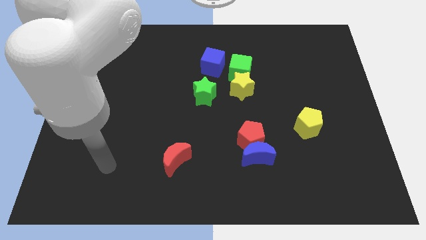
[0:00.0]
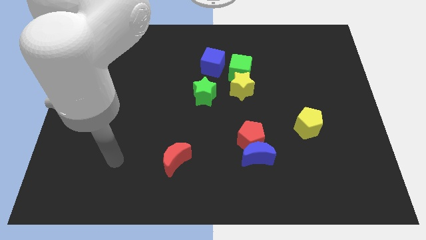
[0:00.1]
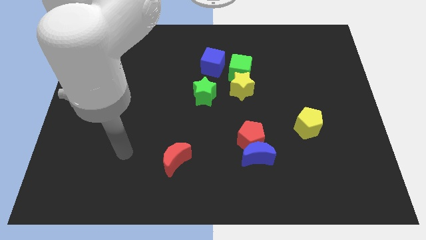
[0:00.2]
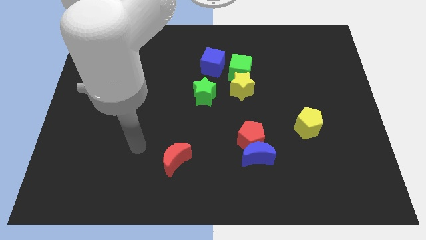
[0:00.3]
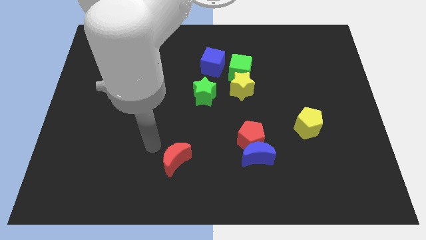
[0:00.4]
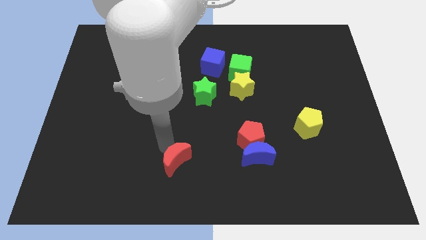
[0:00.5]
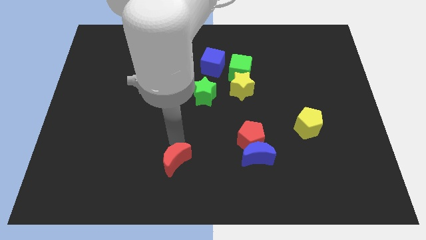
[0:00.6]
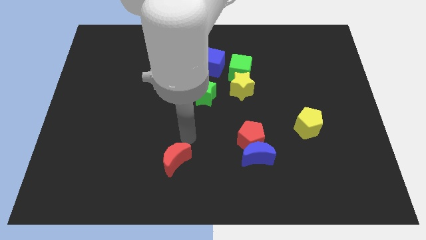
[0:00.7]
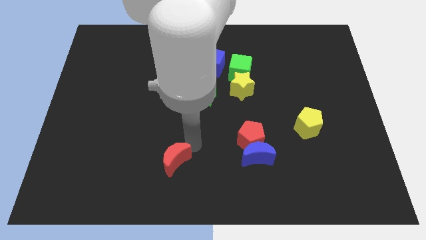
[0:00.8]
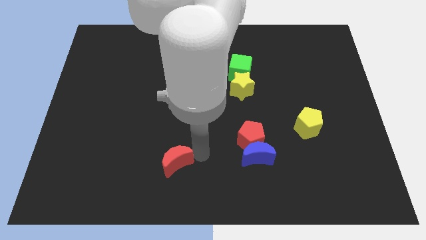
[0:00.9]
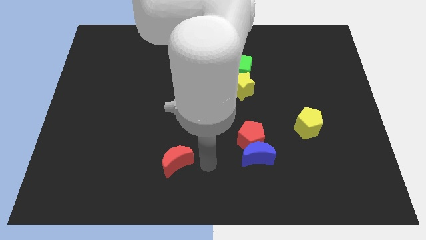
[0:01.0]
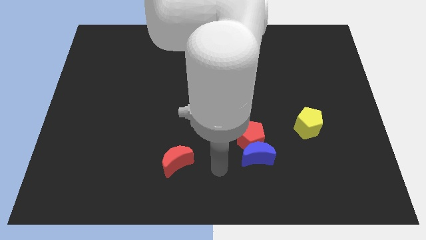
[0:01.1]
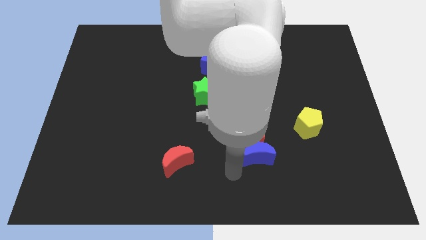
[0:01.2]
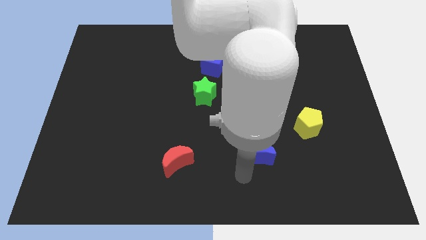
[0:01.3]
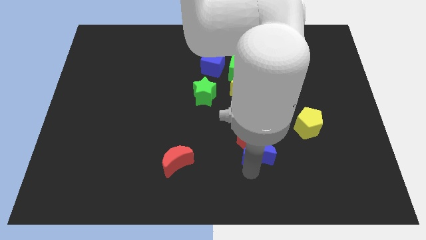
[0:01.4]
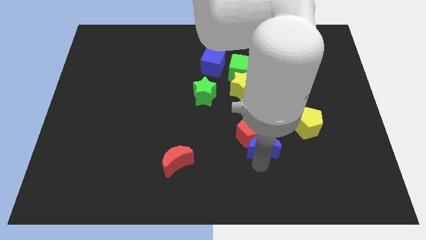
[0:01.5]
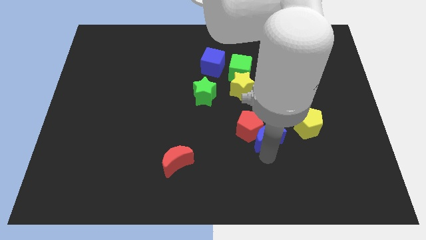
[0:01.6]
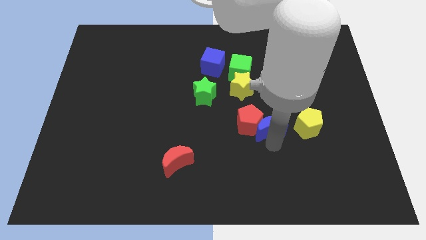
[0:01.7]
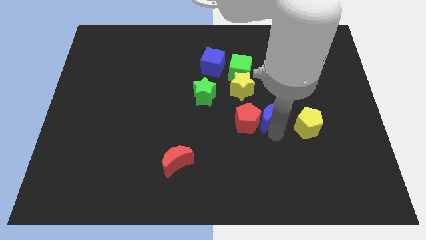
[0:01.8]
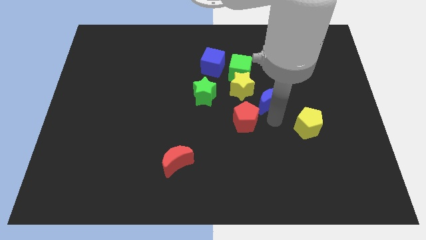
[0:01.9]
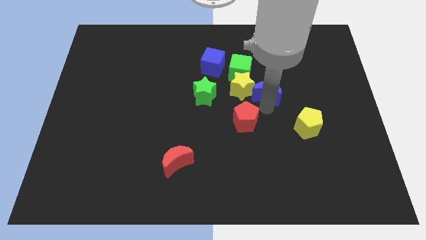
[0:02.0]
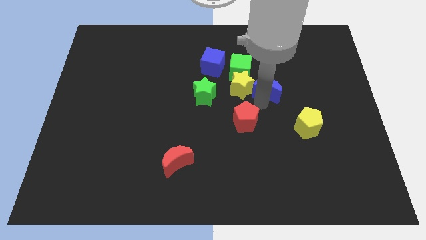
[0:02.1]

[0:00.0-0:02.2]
separate the red pentagon from the blue moon

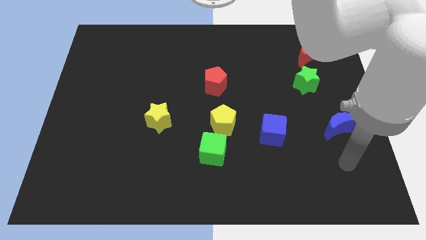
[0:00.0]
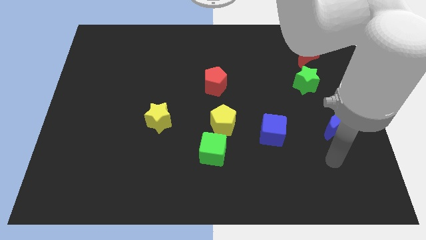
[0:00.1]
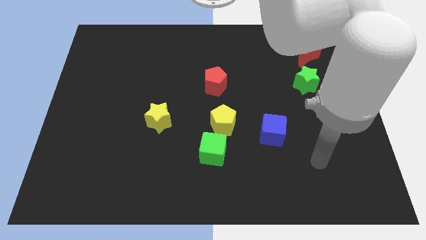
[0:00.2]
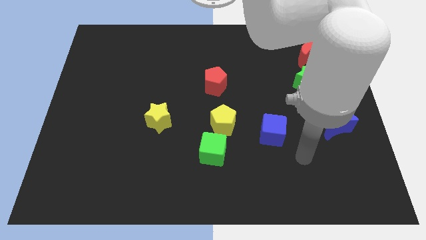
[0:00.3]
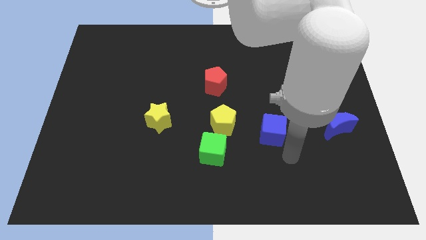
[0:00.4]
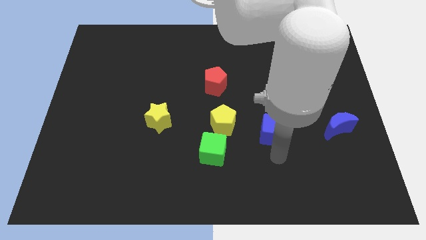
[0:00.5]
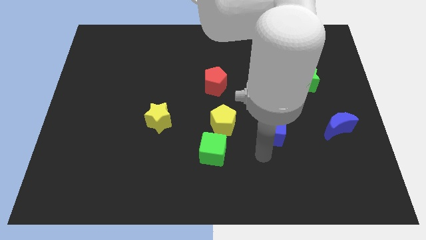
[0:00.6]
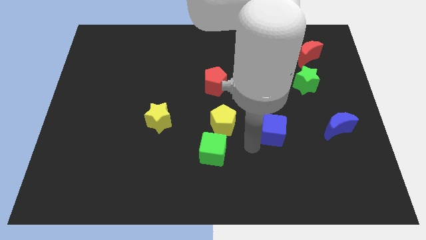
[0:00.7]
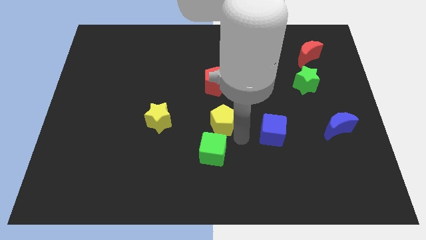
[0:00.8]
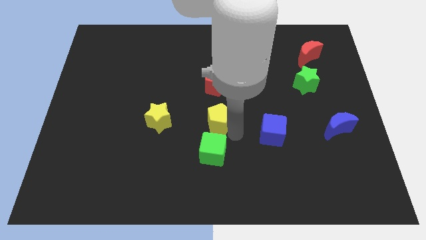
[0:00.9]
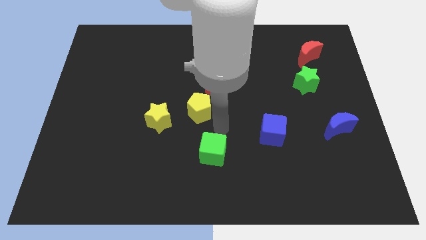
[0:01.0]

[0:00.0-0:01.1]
move the green cube away from the yellow pentagon

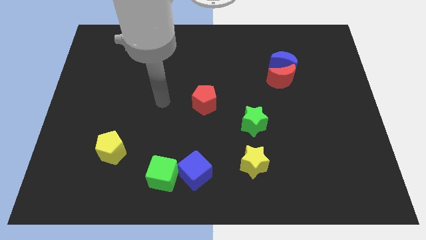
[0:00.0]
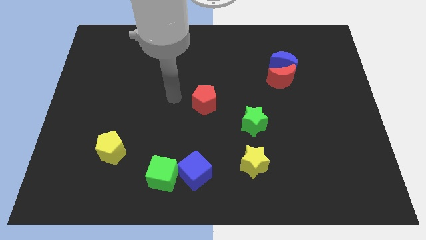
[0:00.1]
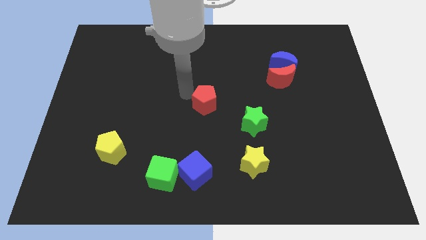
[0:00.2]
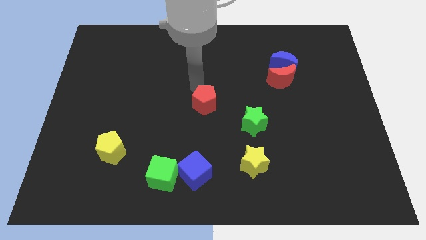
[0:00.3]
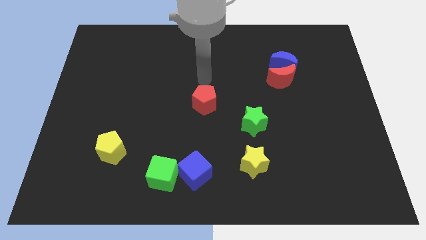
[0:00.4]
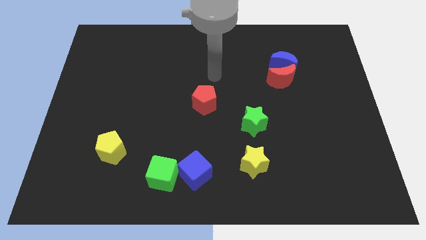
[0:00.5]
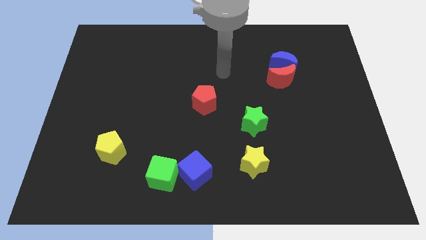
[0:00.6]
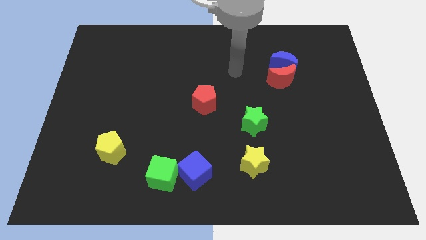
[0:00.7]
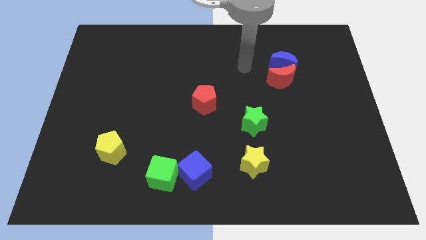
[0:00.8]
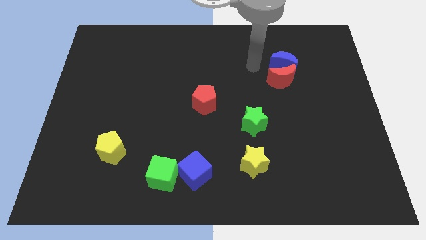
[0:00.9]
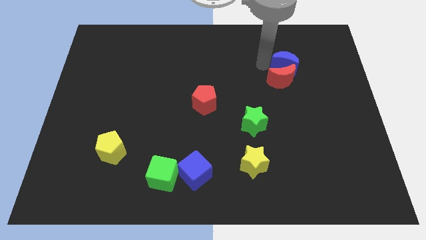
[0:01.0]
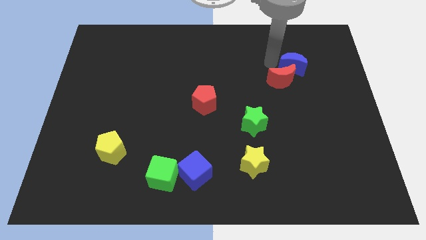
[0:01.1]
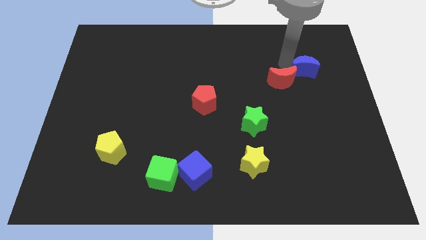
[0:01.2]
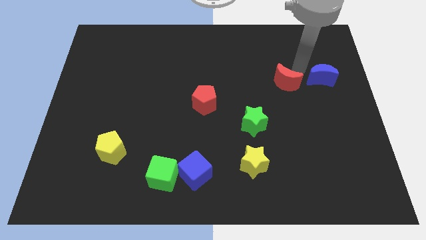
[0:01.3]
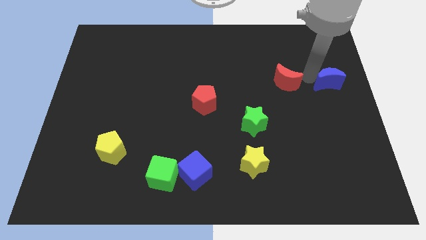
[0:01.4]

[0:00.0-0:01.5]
move the red moon away from the blue moon

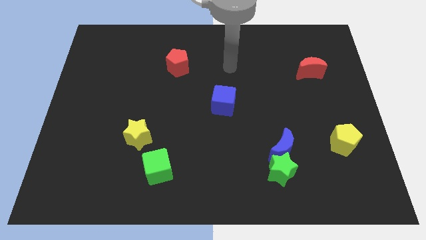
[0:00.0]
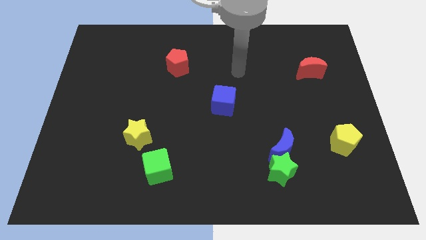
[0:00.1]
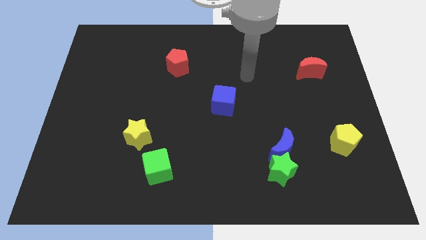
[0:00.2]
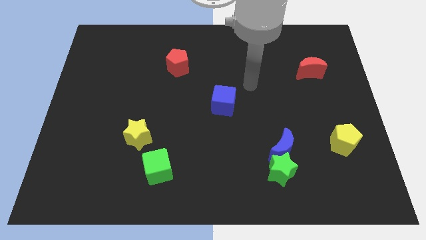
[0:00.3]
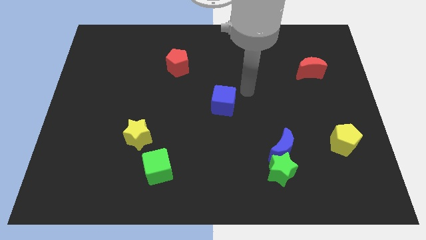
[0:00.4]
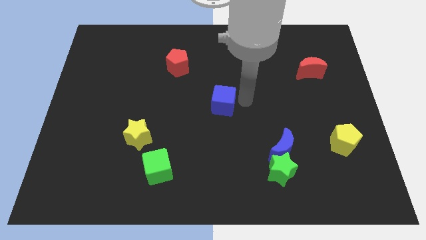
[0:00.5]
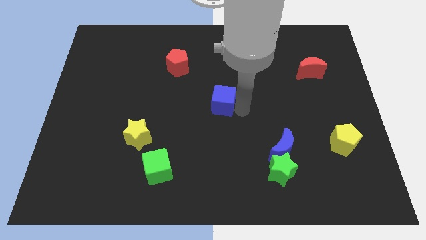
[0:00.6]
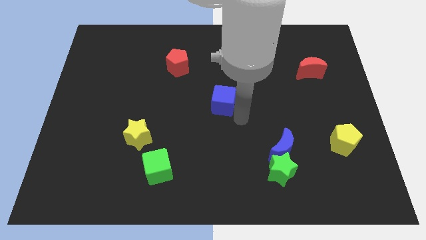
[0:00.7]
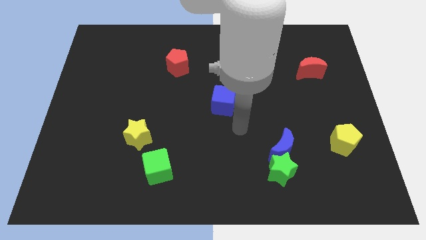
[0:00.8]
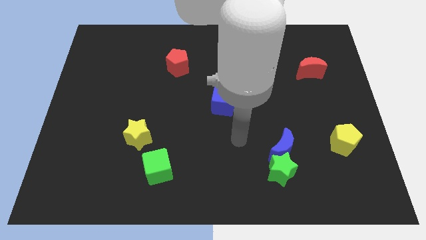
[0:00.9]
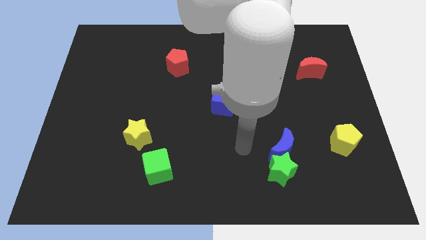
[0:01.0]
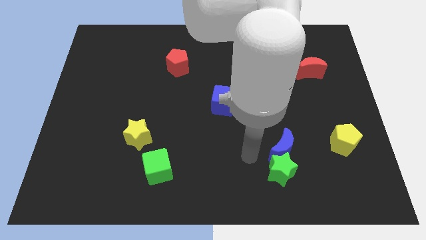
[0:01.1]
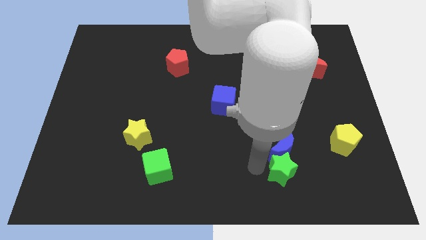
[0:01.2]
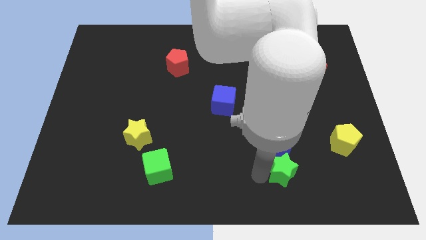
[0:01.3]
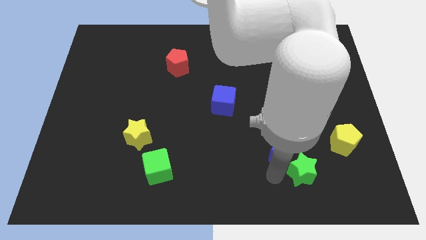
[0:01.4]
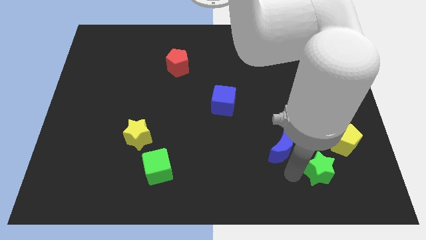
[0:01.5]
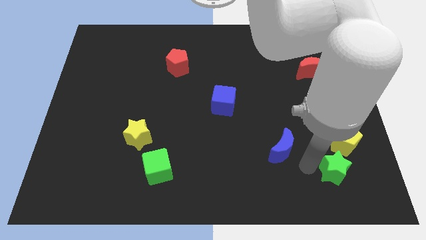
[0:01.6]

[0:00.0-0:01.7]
move the blue moon away from the green star

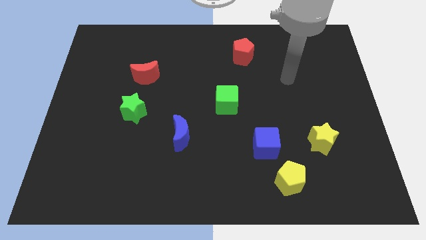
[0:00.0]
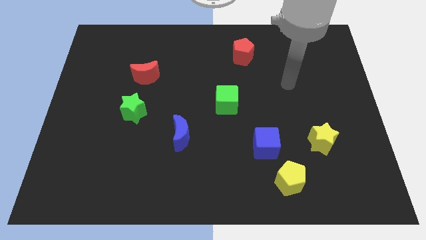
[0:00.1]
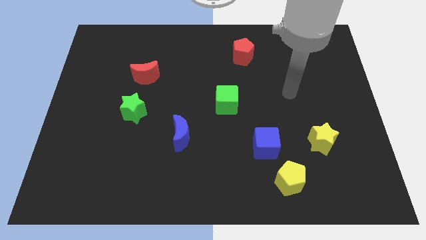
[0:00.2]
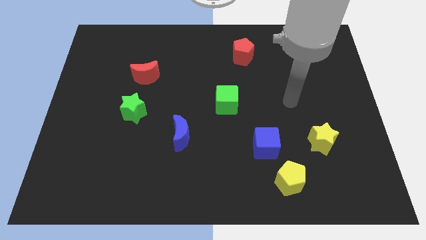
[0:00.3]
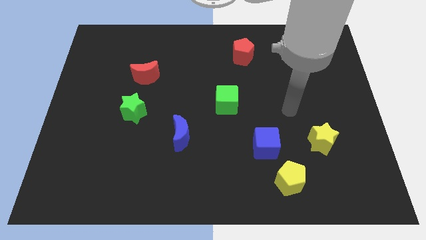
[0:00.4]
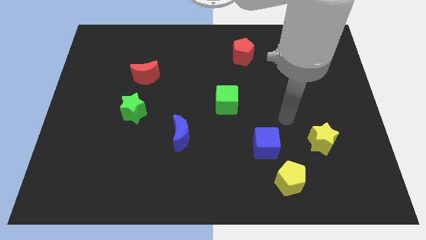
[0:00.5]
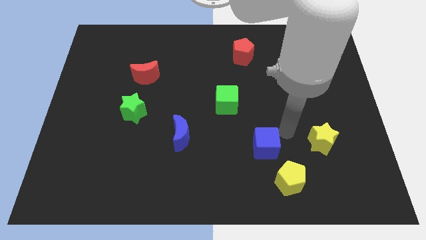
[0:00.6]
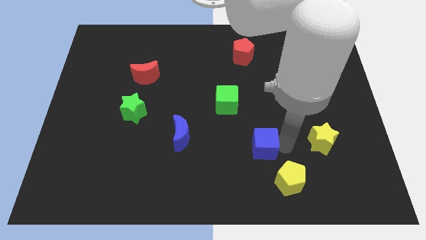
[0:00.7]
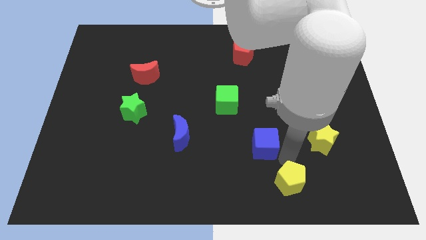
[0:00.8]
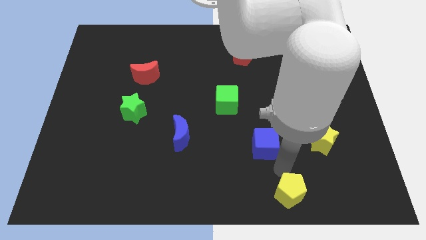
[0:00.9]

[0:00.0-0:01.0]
separate the blue cube from the yellow pentagon

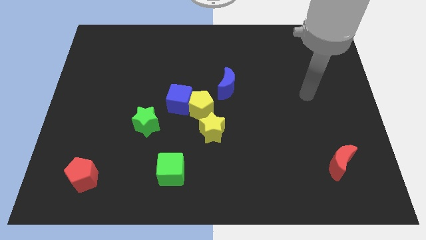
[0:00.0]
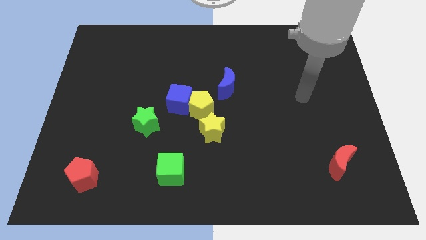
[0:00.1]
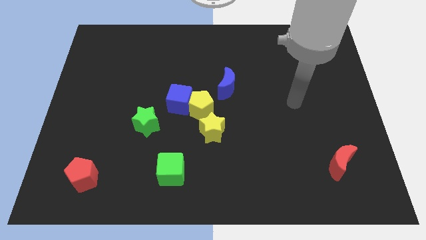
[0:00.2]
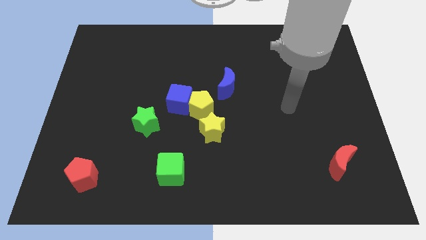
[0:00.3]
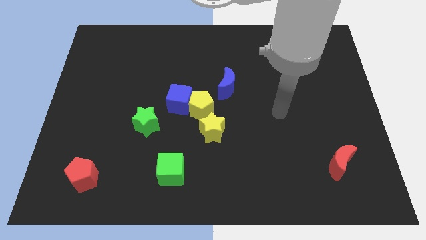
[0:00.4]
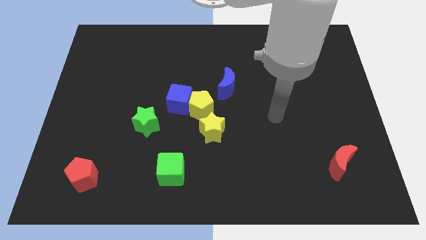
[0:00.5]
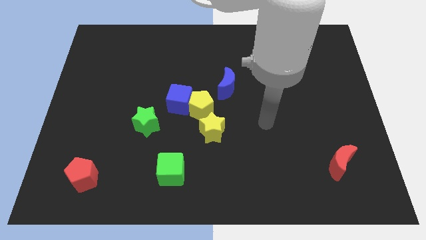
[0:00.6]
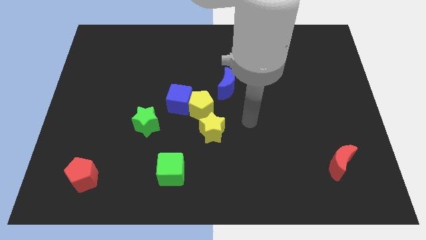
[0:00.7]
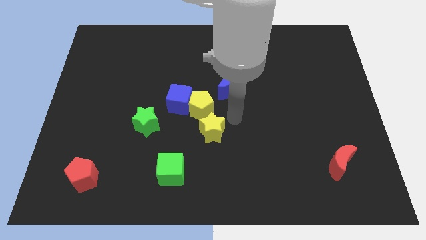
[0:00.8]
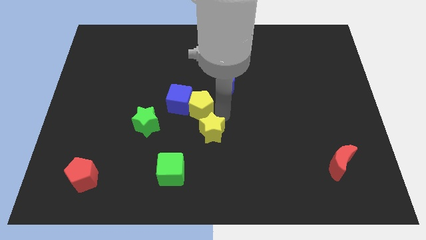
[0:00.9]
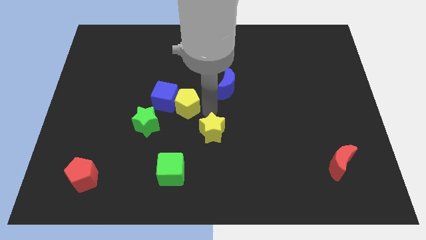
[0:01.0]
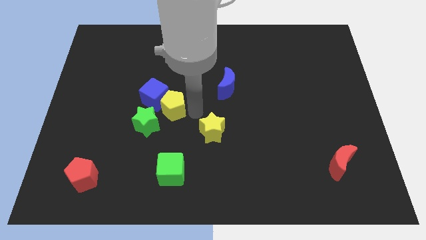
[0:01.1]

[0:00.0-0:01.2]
pull the yellow star apart from the yellow pentagon

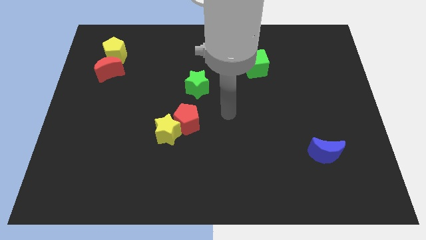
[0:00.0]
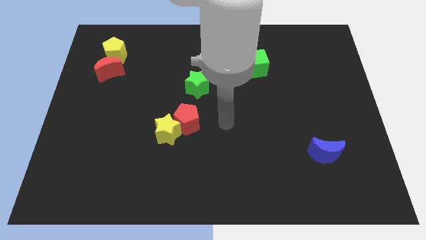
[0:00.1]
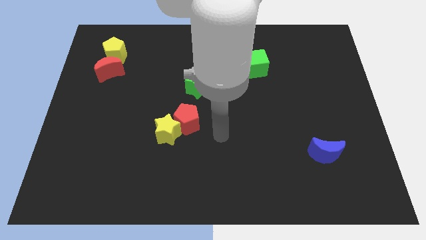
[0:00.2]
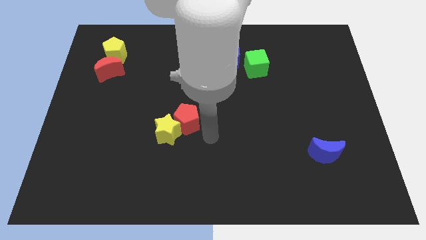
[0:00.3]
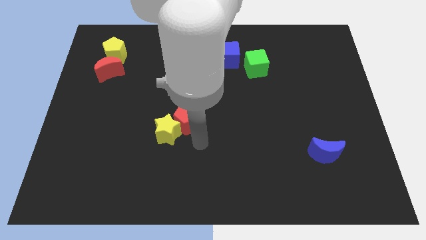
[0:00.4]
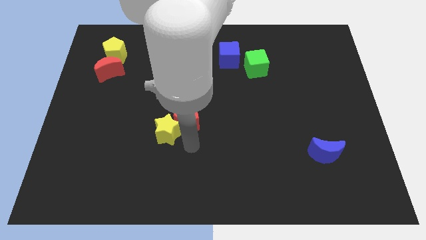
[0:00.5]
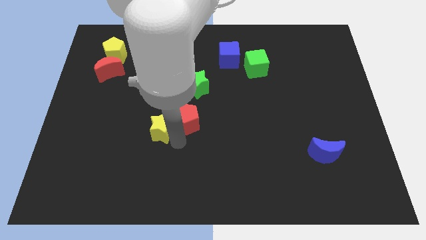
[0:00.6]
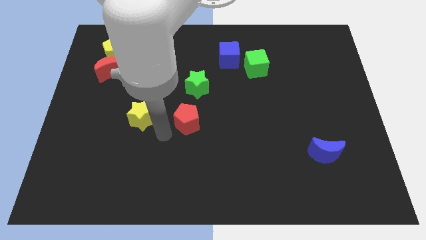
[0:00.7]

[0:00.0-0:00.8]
move the red pentagon away from the yellow star
